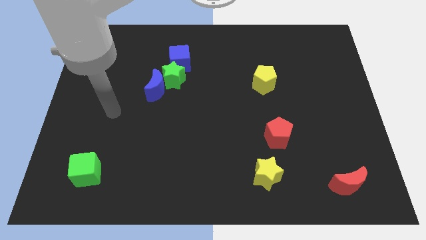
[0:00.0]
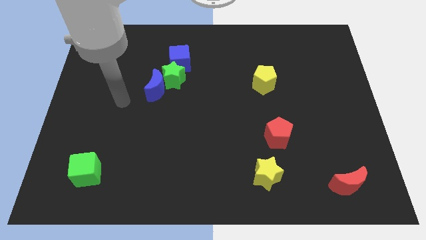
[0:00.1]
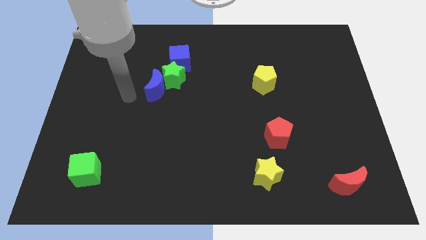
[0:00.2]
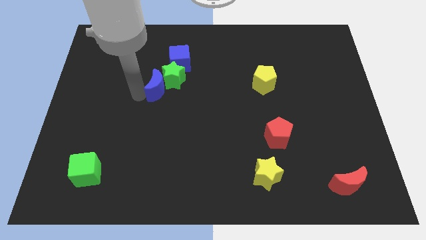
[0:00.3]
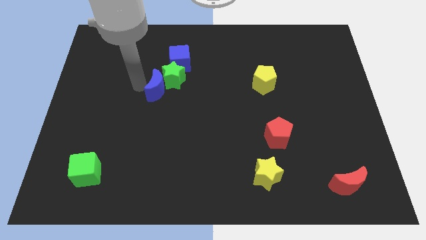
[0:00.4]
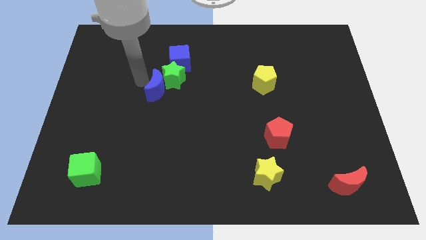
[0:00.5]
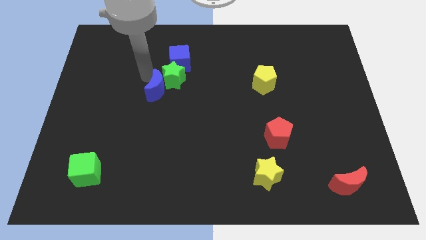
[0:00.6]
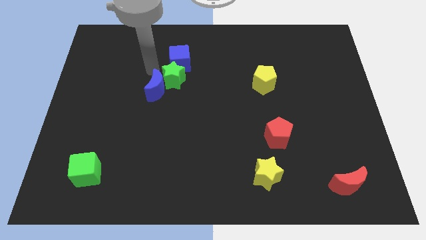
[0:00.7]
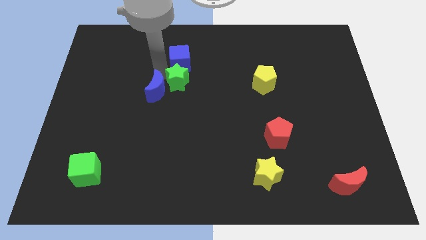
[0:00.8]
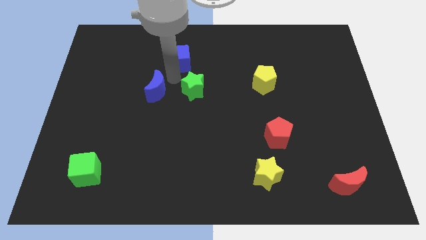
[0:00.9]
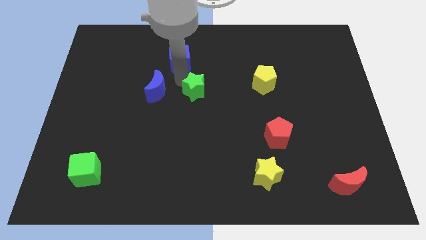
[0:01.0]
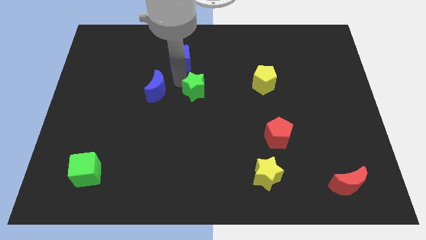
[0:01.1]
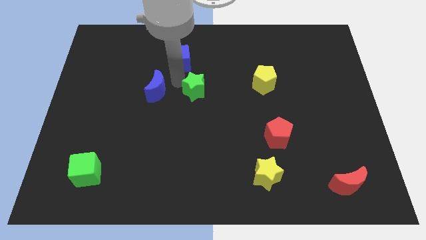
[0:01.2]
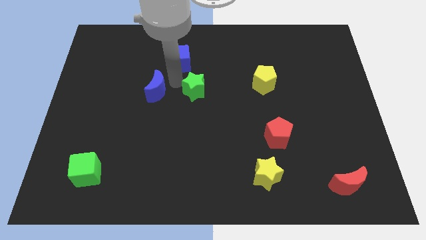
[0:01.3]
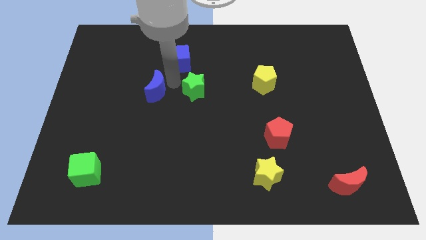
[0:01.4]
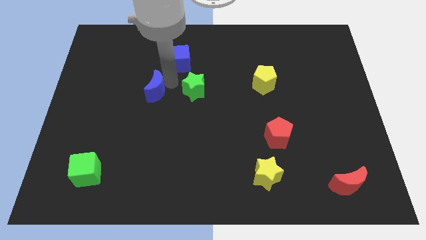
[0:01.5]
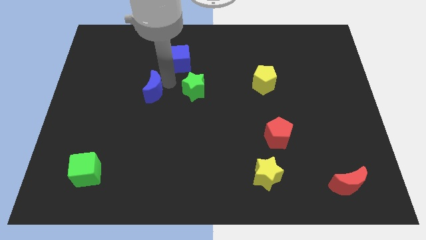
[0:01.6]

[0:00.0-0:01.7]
move the blue moon away from the green star

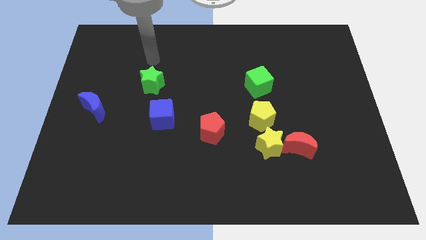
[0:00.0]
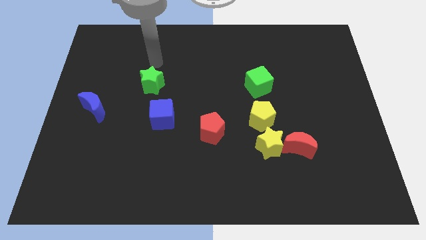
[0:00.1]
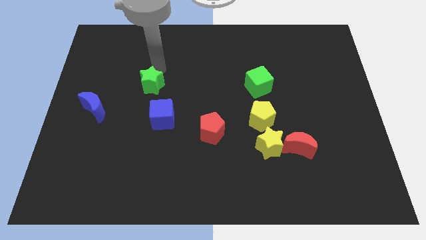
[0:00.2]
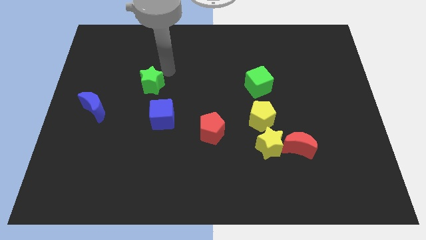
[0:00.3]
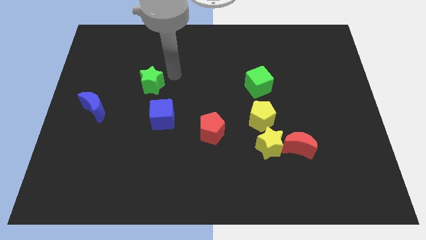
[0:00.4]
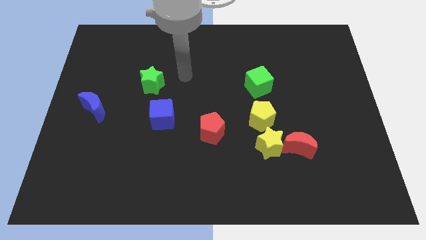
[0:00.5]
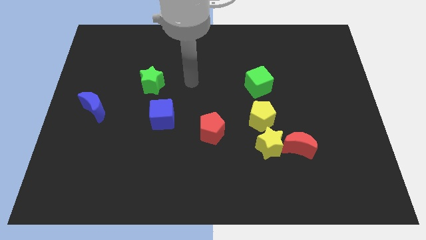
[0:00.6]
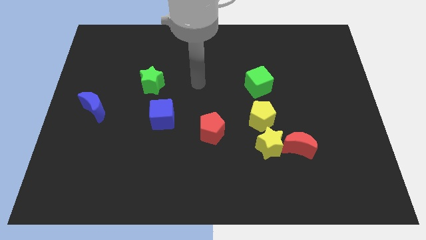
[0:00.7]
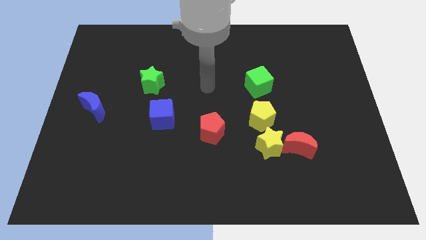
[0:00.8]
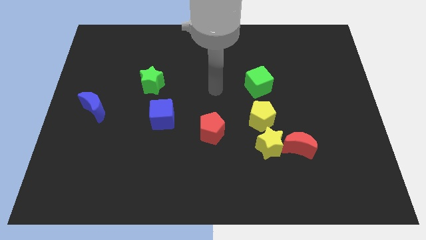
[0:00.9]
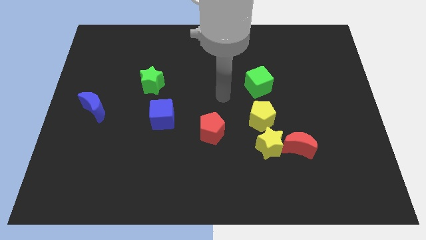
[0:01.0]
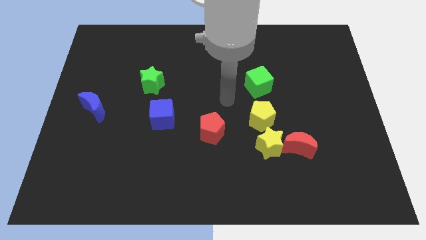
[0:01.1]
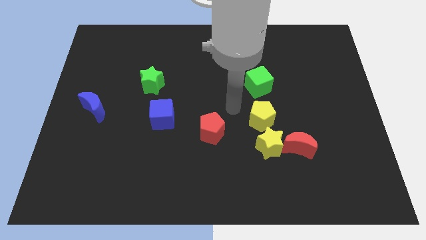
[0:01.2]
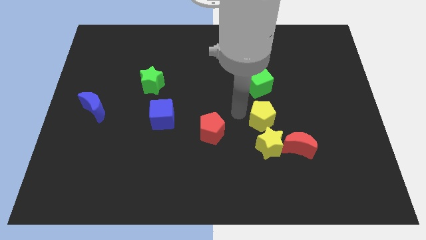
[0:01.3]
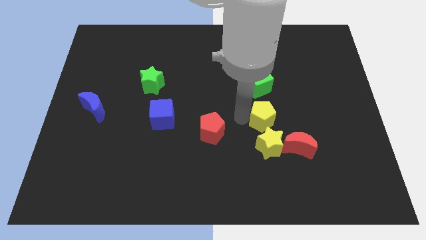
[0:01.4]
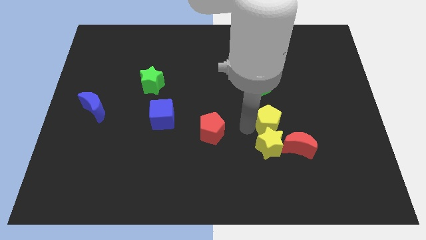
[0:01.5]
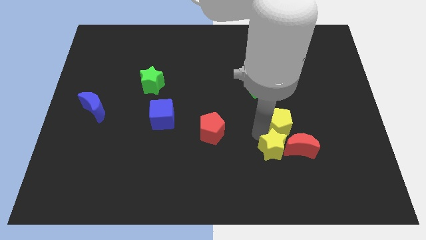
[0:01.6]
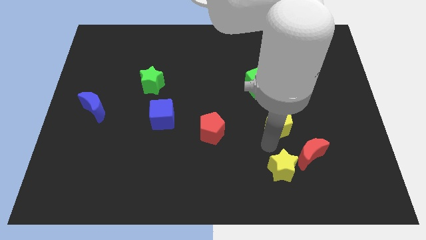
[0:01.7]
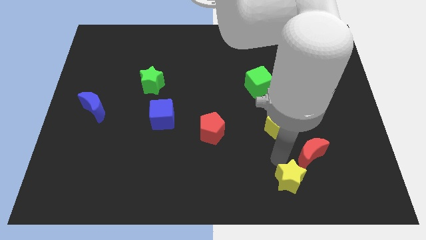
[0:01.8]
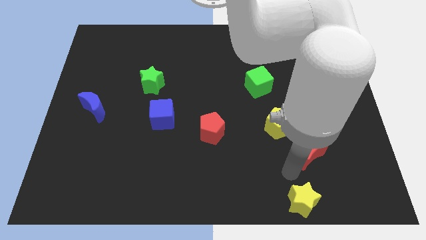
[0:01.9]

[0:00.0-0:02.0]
pull the red moon apart from the yellow star

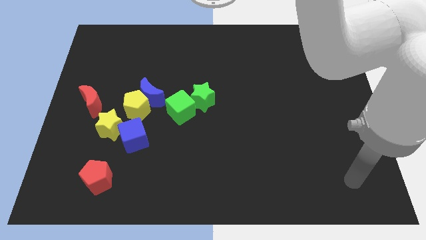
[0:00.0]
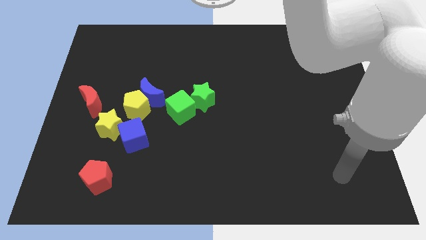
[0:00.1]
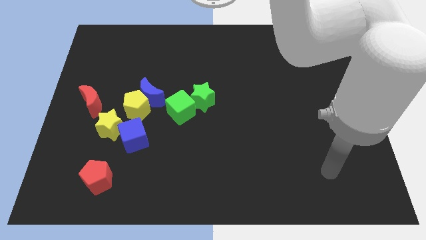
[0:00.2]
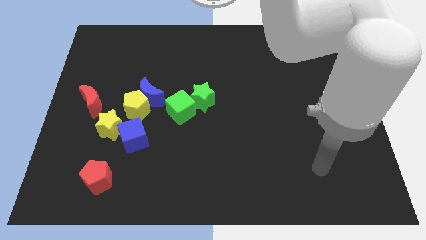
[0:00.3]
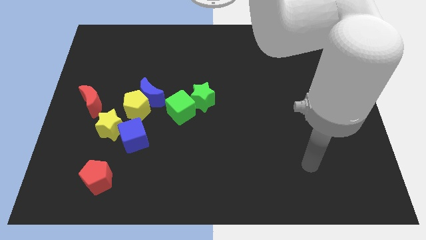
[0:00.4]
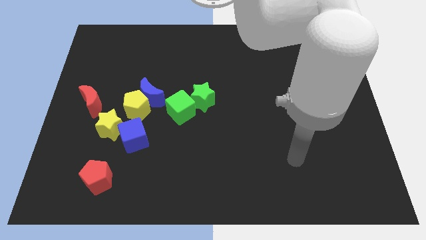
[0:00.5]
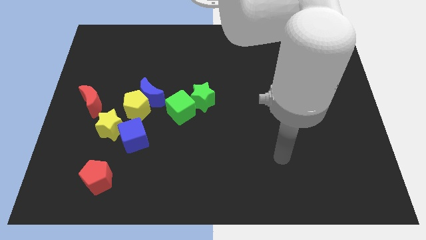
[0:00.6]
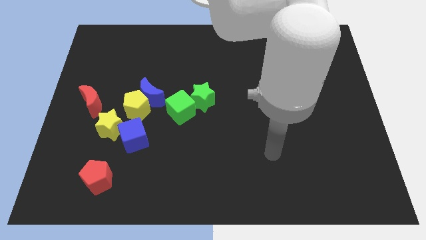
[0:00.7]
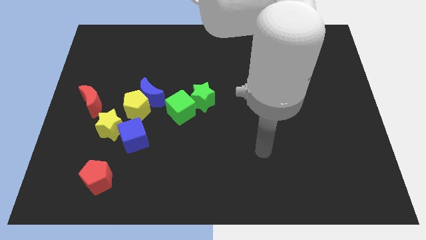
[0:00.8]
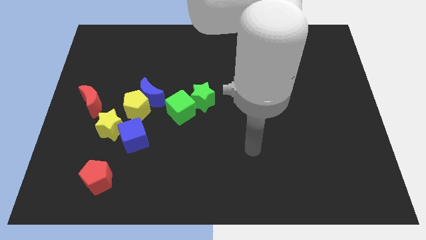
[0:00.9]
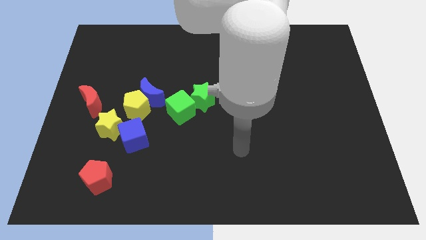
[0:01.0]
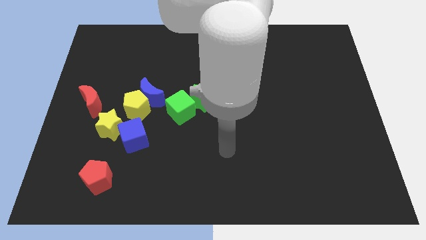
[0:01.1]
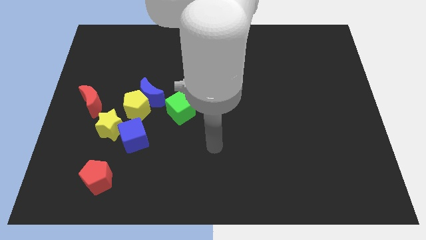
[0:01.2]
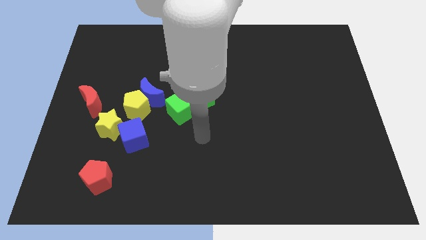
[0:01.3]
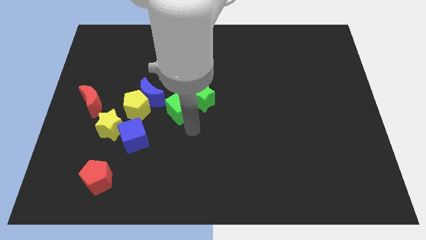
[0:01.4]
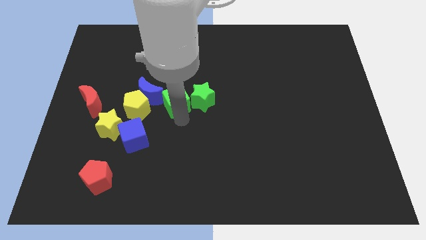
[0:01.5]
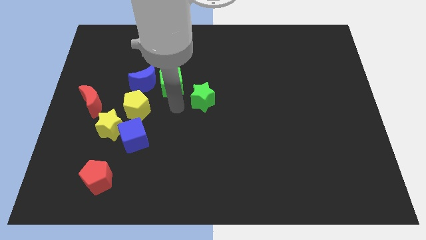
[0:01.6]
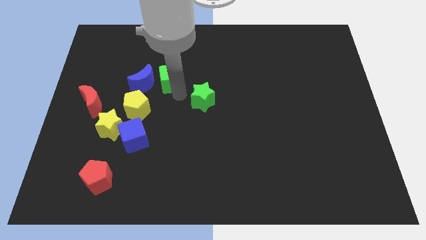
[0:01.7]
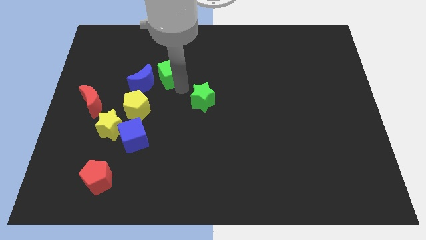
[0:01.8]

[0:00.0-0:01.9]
separate the green star from the green cube

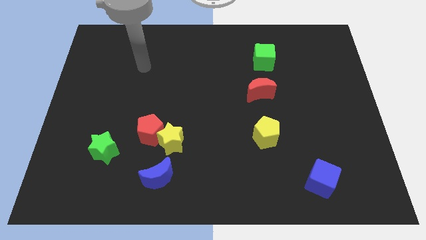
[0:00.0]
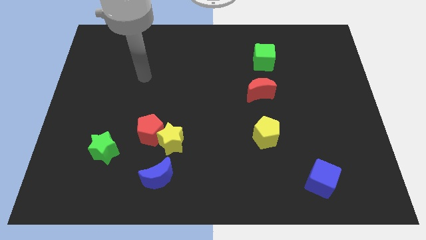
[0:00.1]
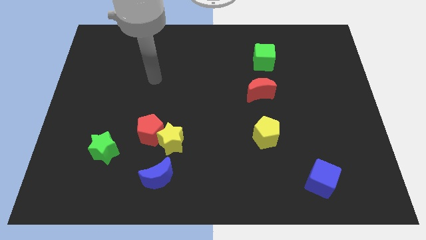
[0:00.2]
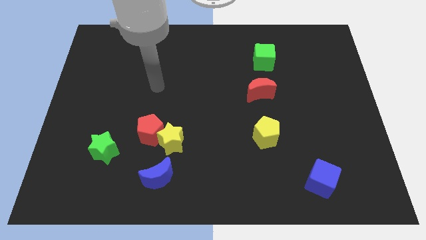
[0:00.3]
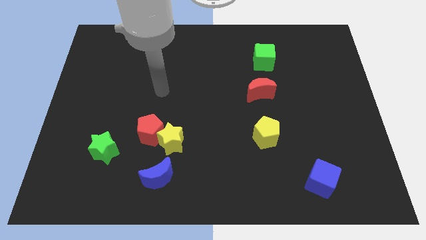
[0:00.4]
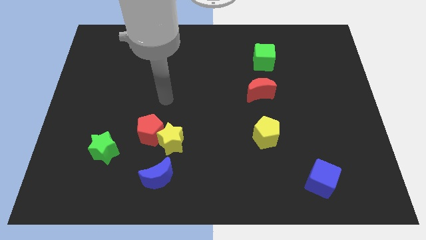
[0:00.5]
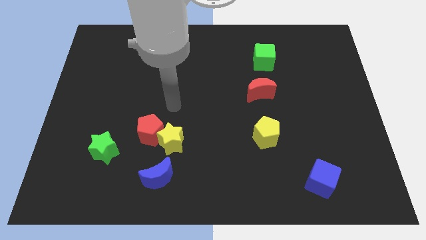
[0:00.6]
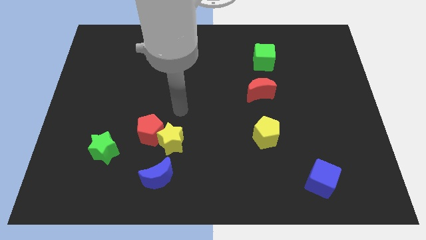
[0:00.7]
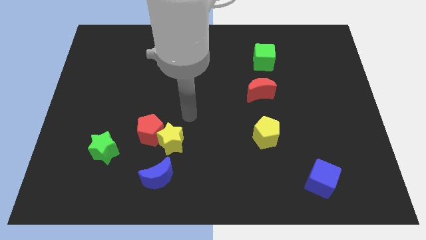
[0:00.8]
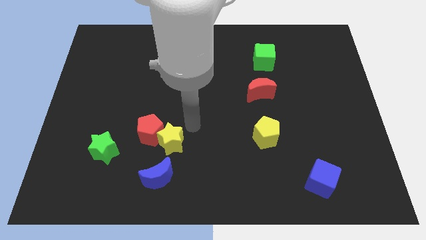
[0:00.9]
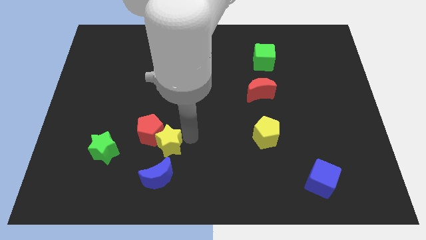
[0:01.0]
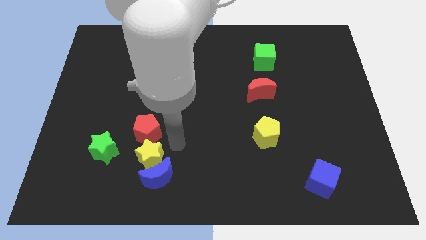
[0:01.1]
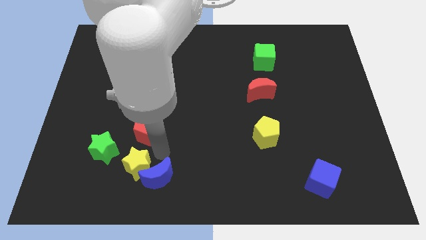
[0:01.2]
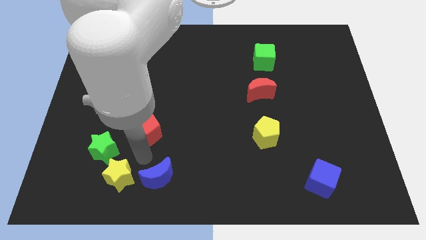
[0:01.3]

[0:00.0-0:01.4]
pull the red pentagon apart from the yellow star

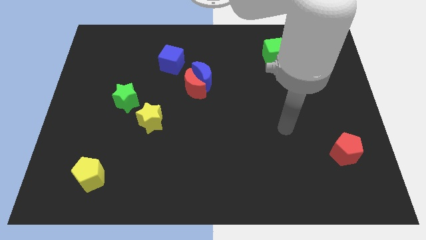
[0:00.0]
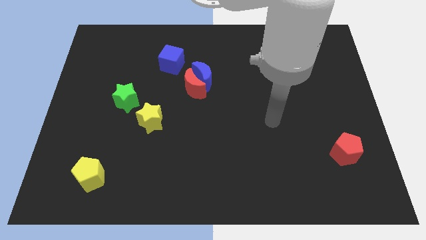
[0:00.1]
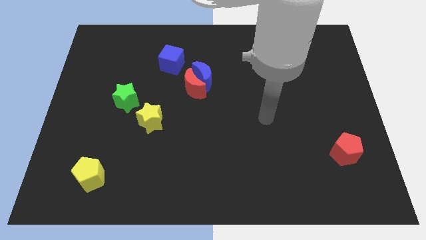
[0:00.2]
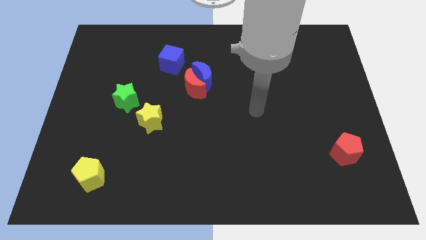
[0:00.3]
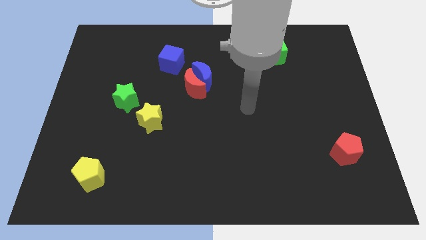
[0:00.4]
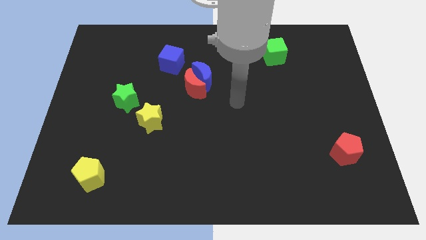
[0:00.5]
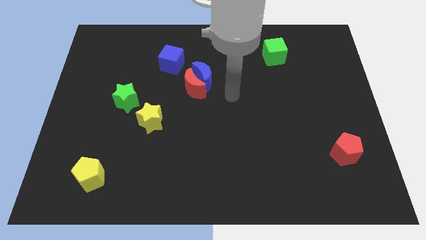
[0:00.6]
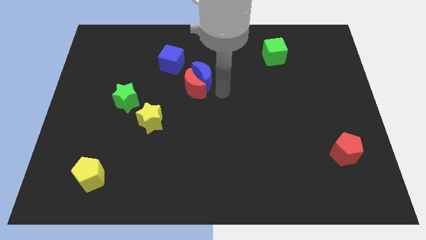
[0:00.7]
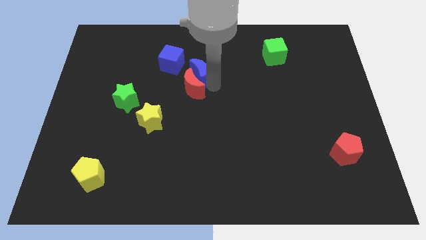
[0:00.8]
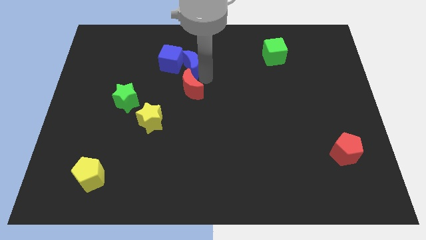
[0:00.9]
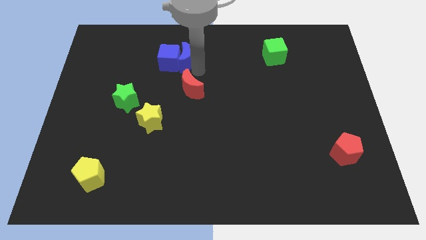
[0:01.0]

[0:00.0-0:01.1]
pull the red moon apart from the blue moon

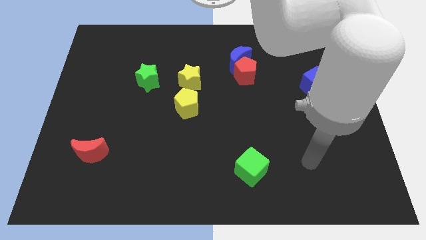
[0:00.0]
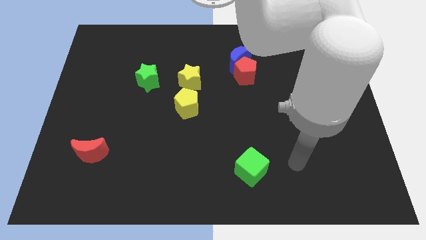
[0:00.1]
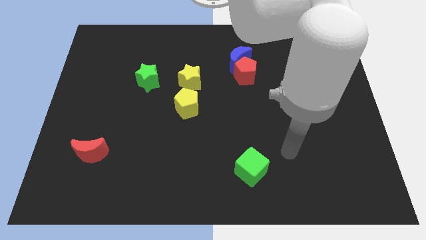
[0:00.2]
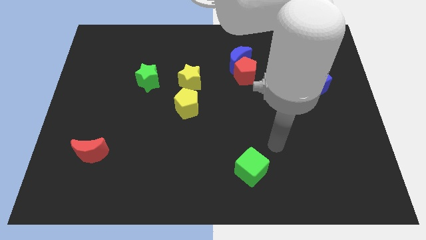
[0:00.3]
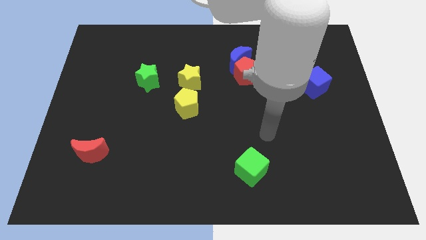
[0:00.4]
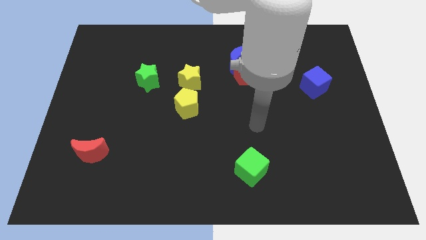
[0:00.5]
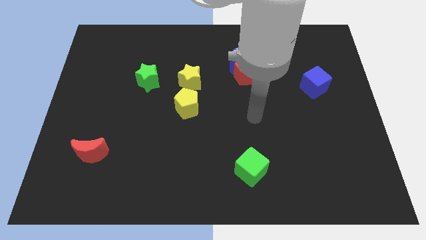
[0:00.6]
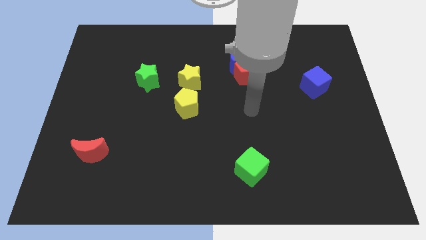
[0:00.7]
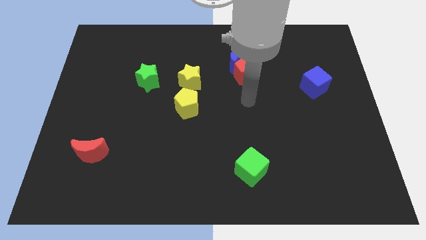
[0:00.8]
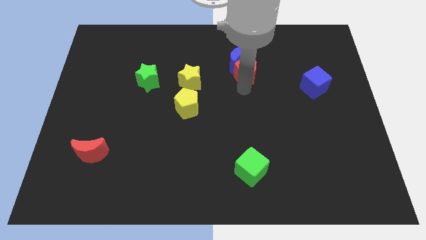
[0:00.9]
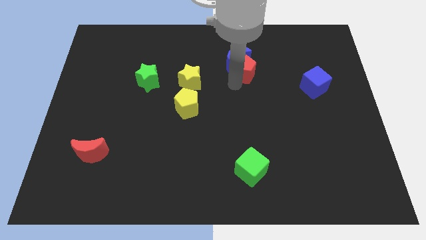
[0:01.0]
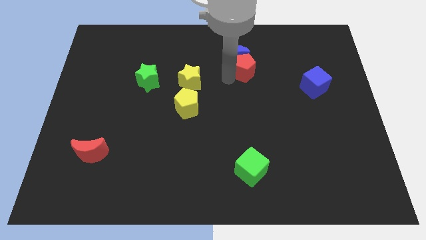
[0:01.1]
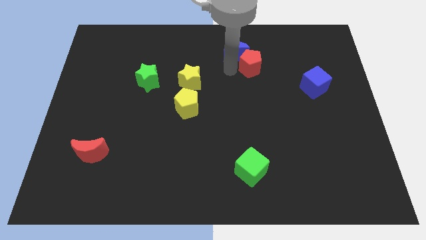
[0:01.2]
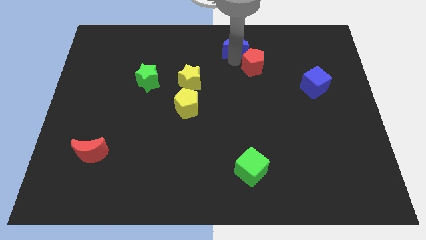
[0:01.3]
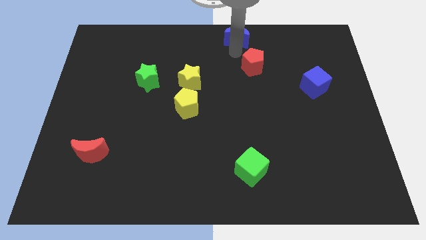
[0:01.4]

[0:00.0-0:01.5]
move the red pentagon away from the blue moon
